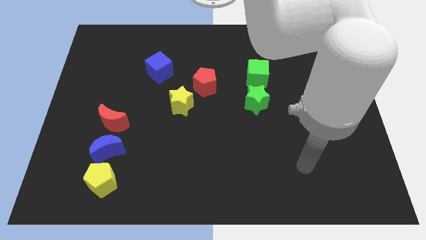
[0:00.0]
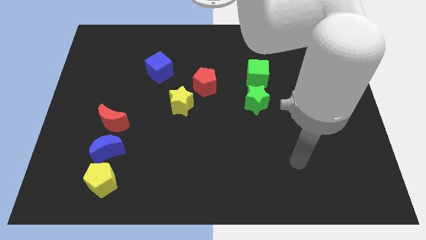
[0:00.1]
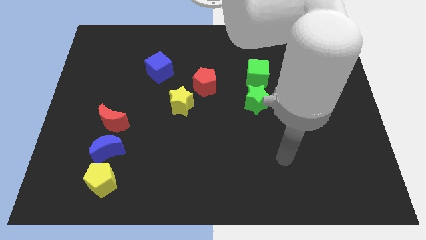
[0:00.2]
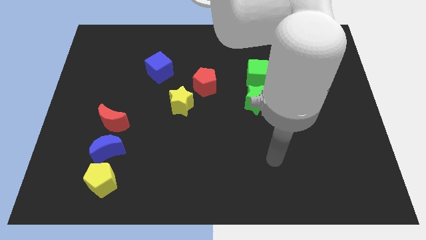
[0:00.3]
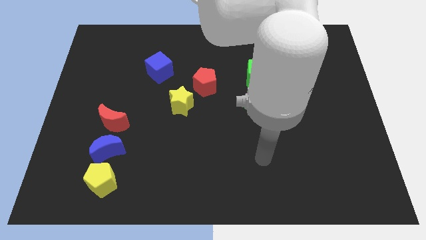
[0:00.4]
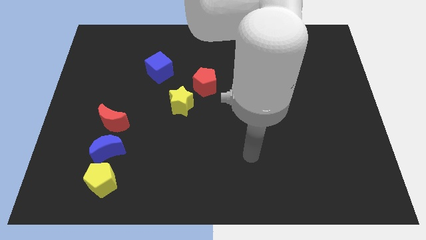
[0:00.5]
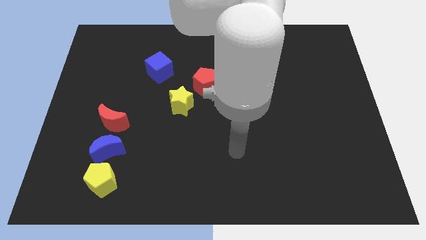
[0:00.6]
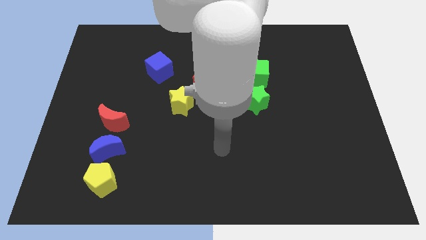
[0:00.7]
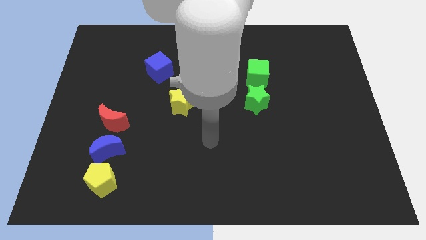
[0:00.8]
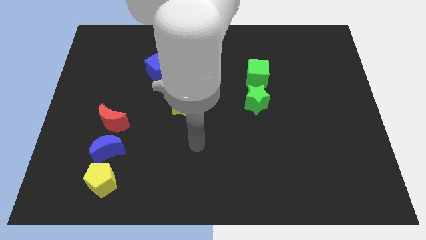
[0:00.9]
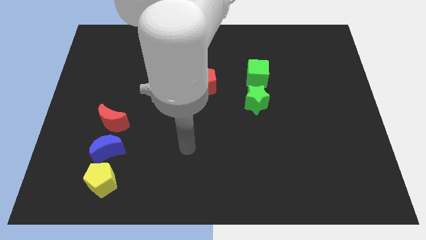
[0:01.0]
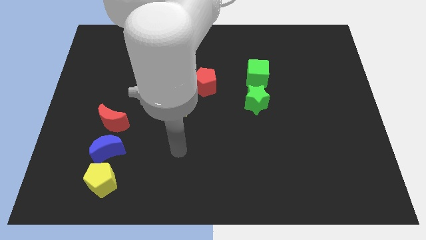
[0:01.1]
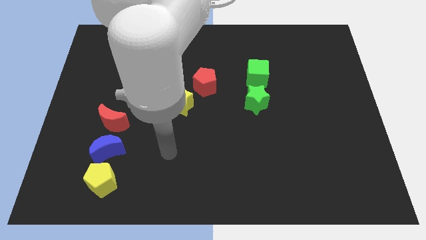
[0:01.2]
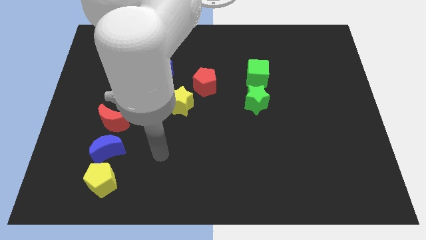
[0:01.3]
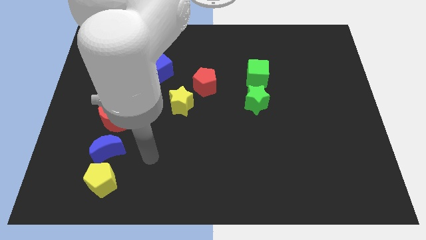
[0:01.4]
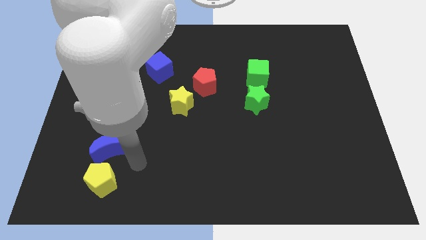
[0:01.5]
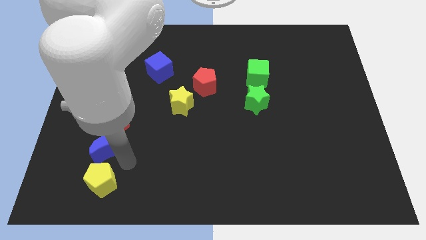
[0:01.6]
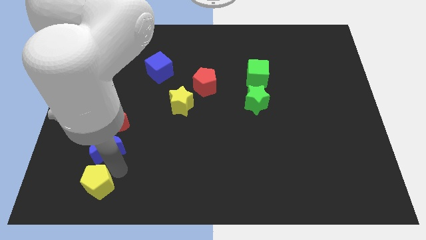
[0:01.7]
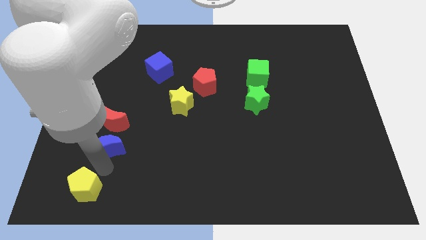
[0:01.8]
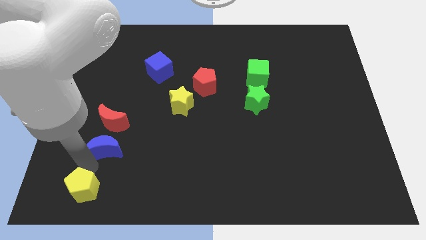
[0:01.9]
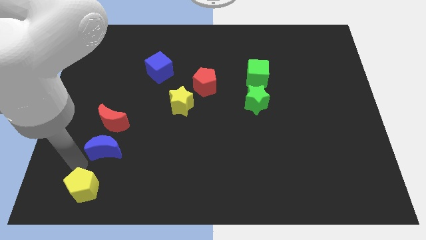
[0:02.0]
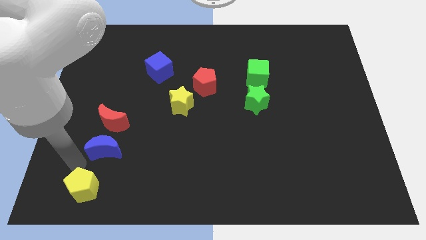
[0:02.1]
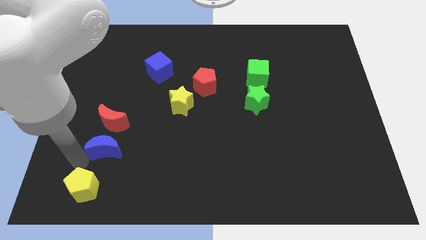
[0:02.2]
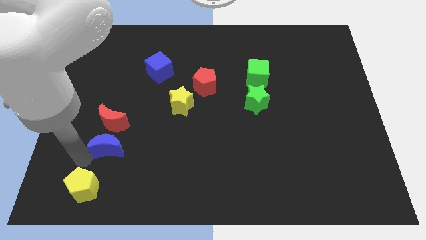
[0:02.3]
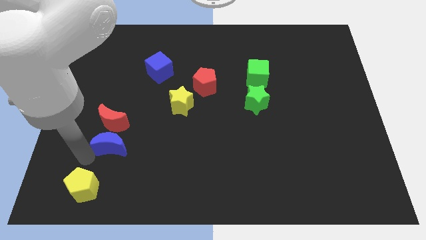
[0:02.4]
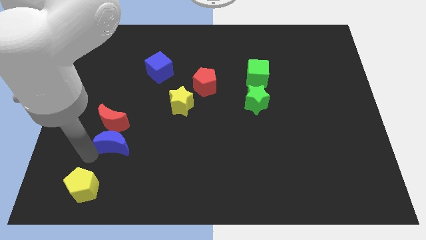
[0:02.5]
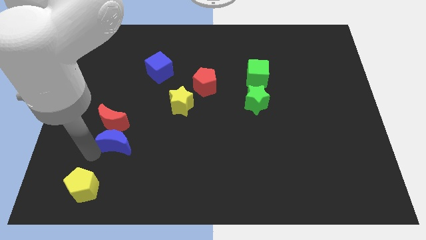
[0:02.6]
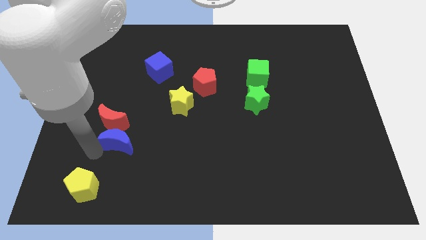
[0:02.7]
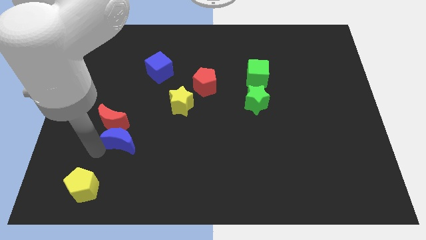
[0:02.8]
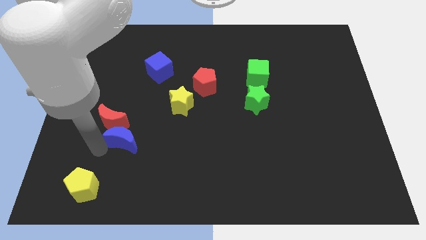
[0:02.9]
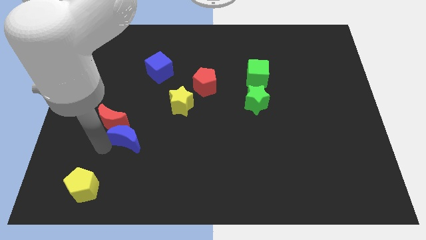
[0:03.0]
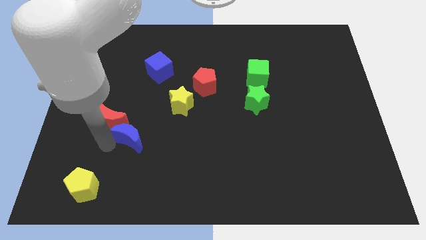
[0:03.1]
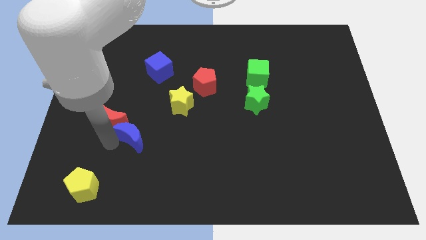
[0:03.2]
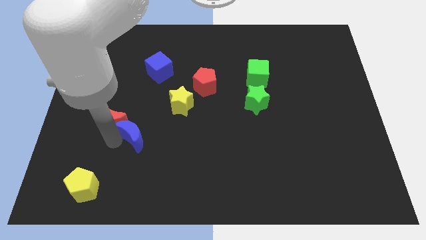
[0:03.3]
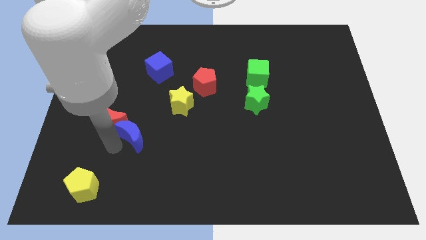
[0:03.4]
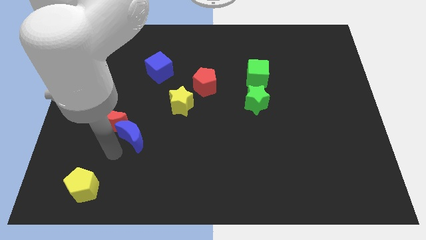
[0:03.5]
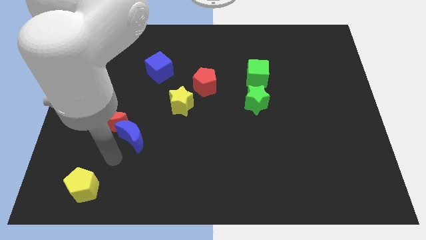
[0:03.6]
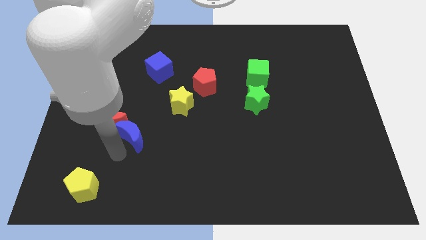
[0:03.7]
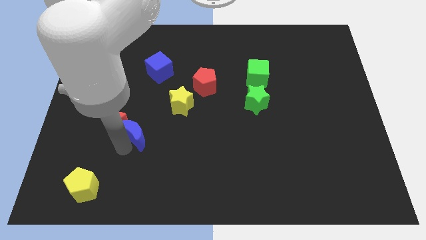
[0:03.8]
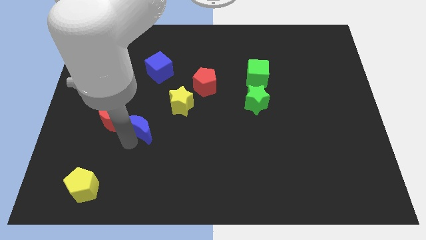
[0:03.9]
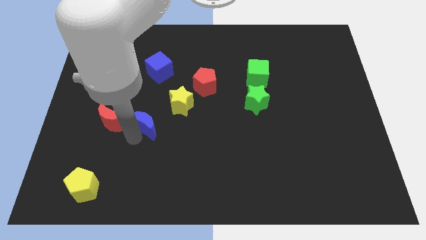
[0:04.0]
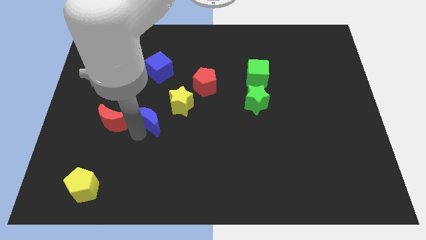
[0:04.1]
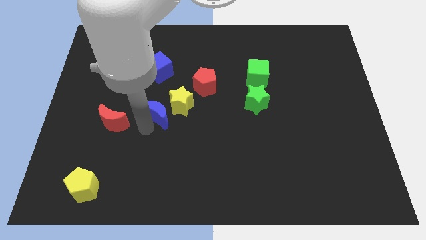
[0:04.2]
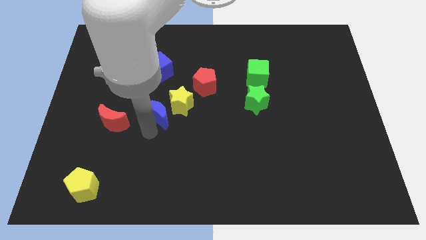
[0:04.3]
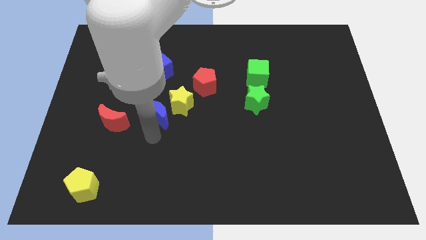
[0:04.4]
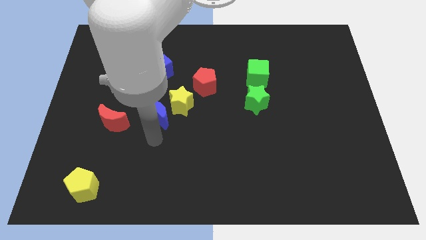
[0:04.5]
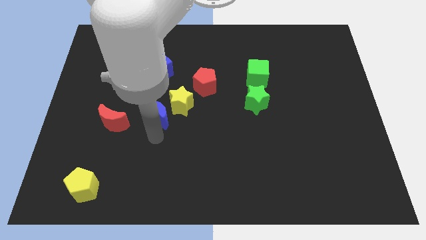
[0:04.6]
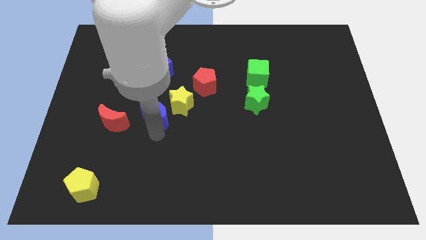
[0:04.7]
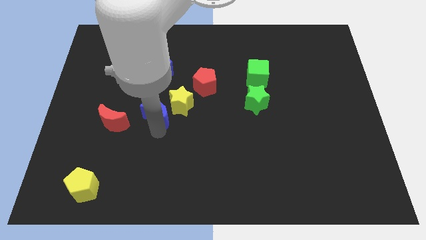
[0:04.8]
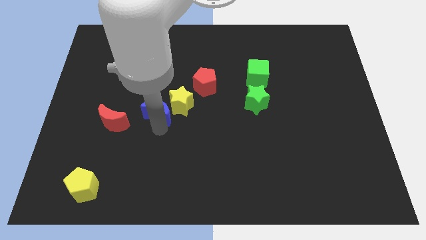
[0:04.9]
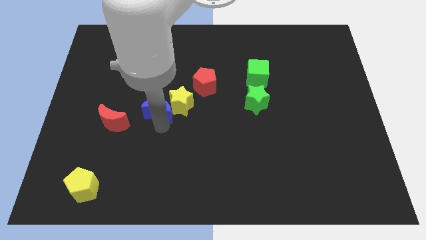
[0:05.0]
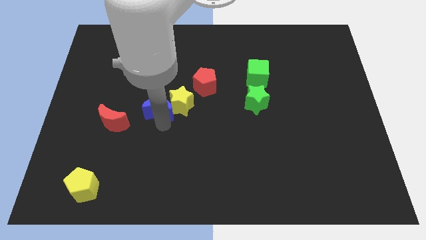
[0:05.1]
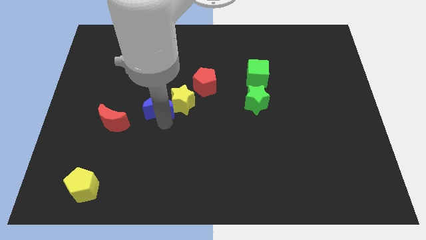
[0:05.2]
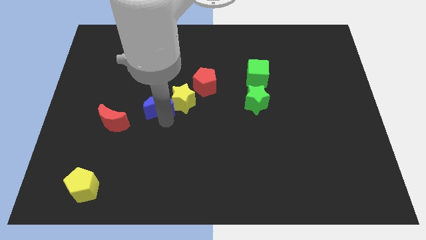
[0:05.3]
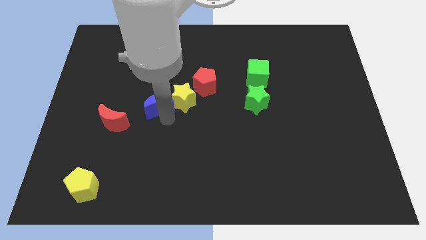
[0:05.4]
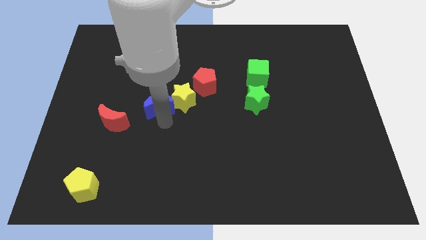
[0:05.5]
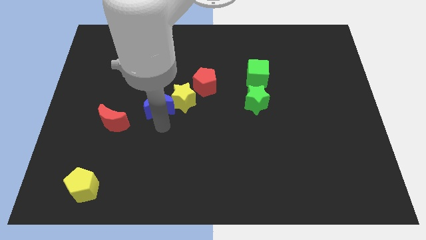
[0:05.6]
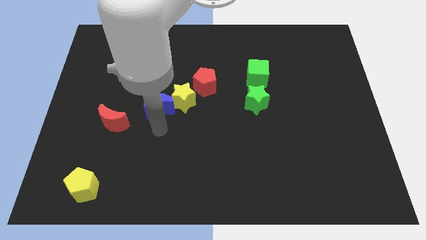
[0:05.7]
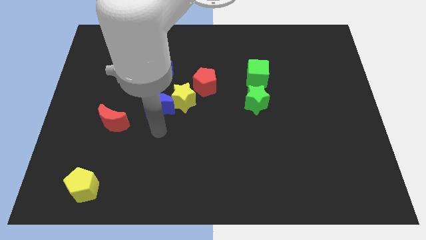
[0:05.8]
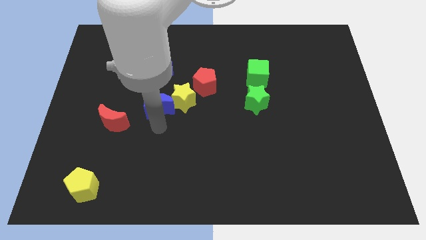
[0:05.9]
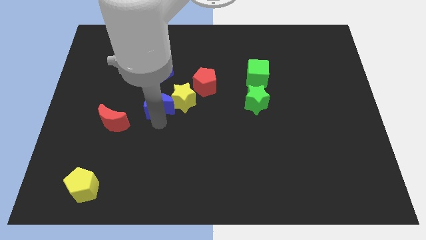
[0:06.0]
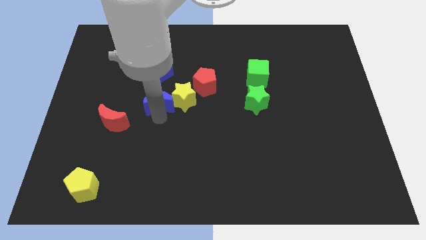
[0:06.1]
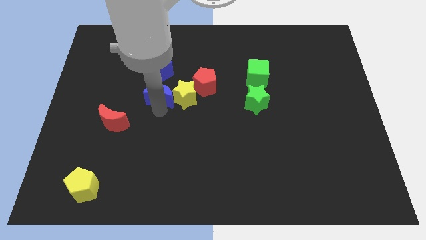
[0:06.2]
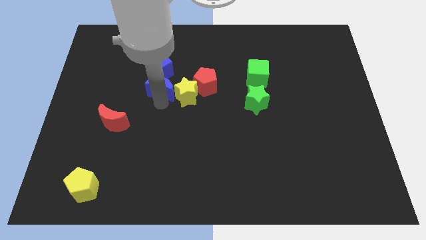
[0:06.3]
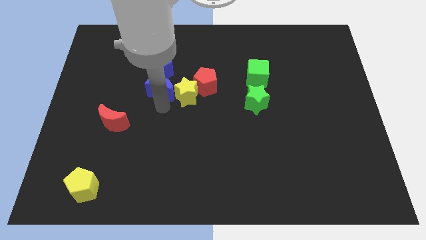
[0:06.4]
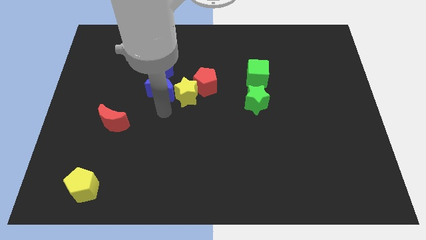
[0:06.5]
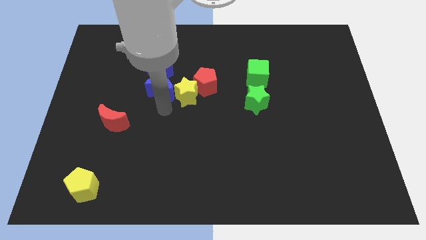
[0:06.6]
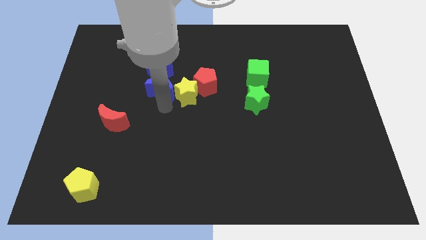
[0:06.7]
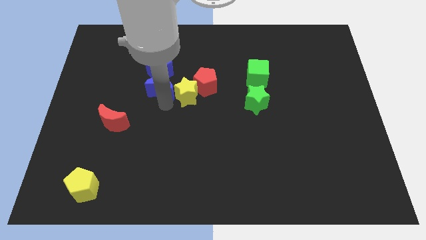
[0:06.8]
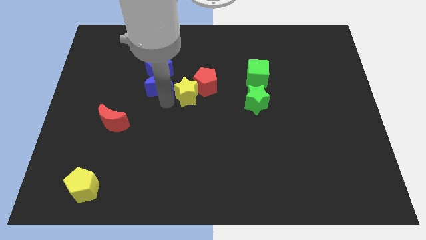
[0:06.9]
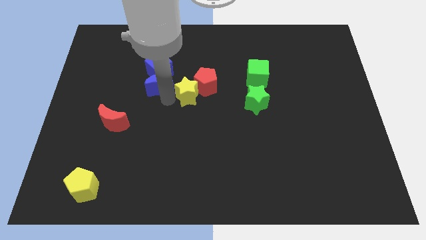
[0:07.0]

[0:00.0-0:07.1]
slide the blue moon towards the blue cube
